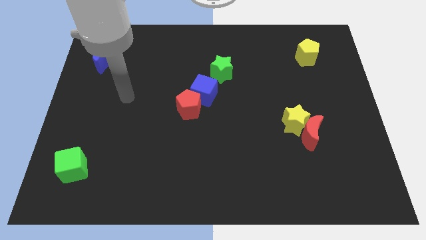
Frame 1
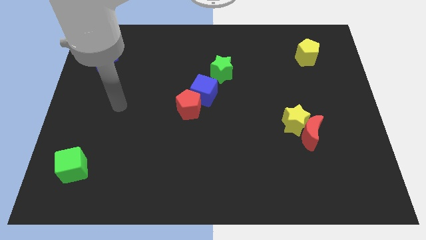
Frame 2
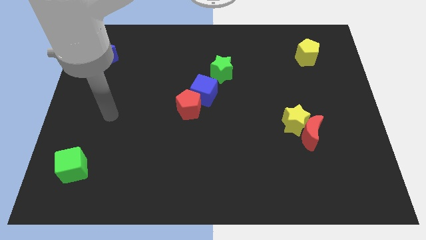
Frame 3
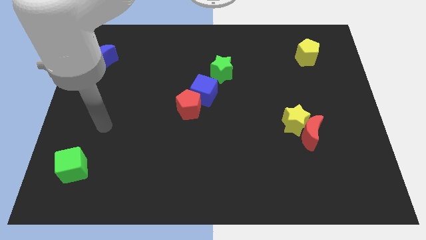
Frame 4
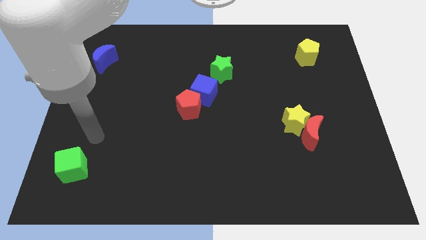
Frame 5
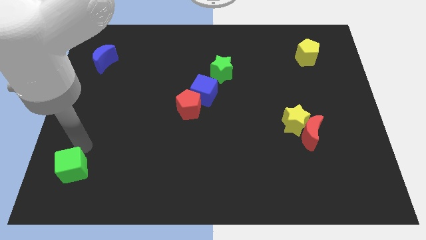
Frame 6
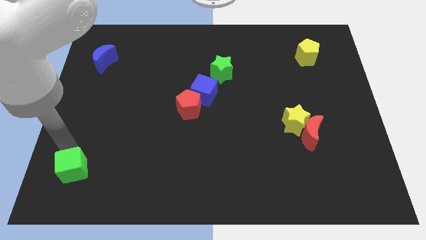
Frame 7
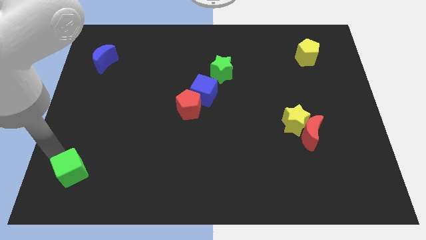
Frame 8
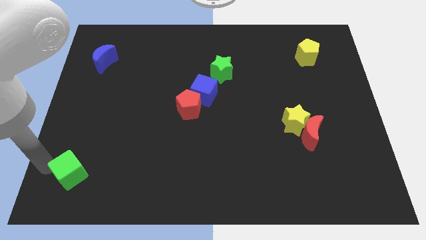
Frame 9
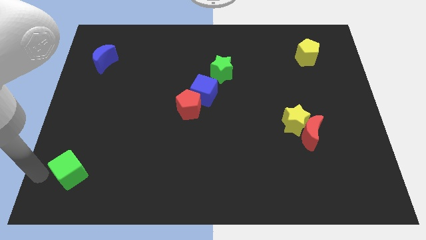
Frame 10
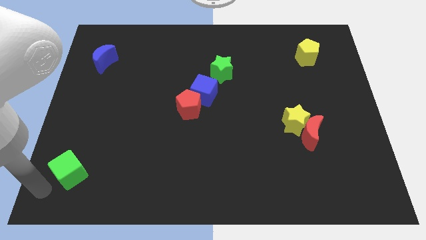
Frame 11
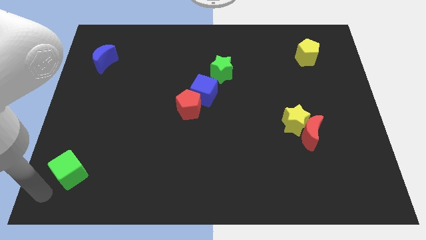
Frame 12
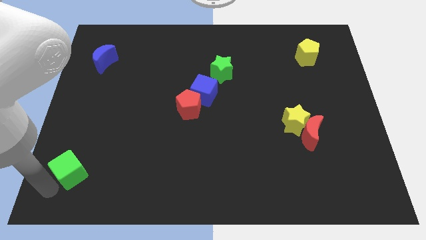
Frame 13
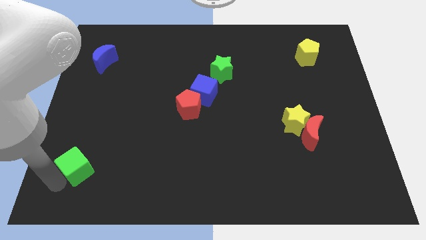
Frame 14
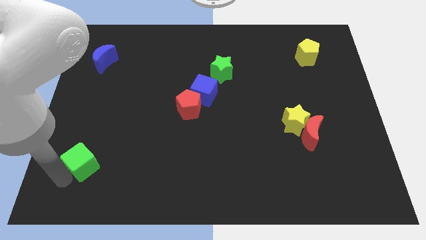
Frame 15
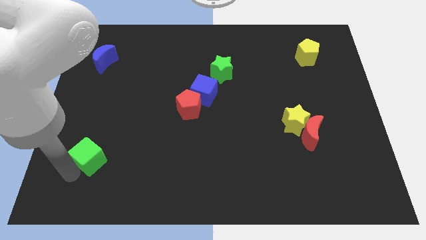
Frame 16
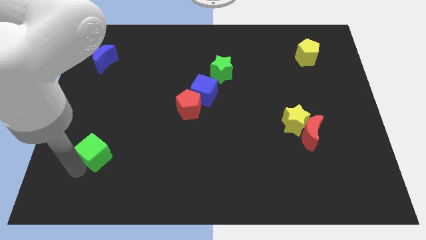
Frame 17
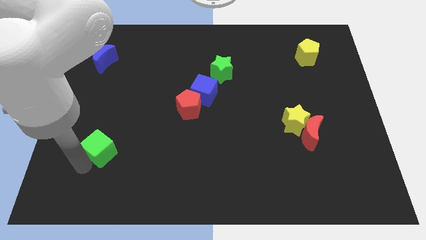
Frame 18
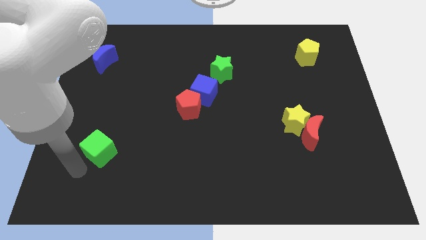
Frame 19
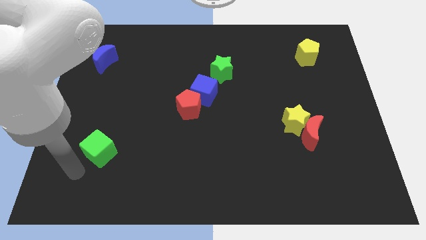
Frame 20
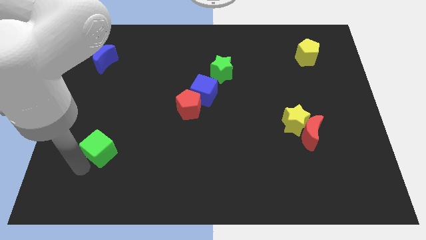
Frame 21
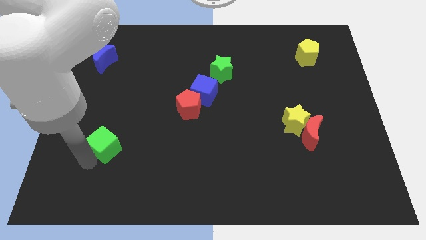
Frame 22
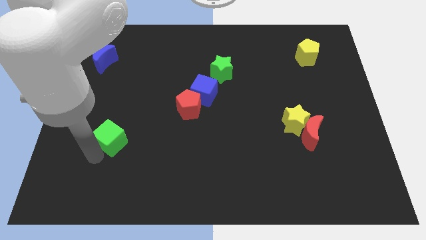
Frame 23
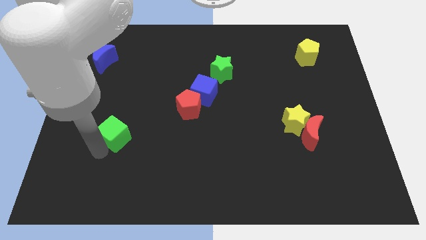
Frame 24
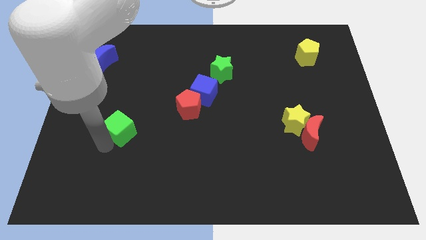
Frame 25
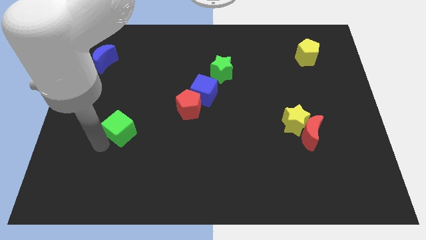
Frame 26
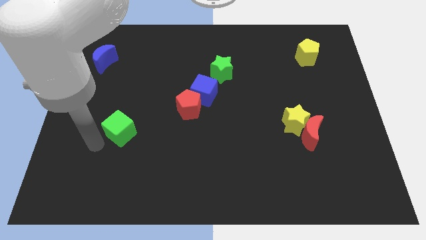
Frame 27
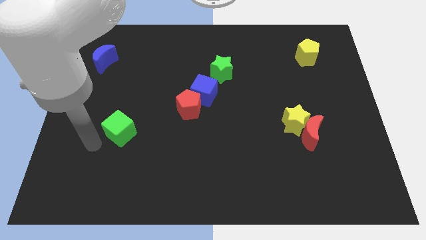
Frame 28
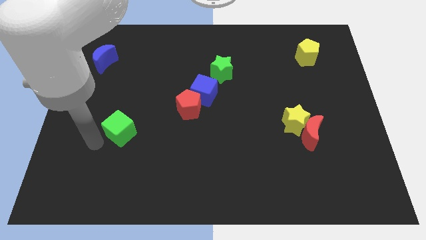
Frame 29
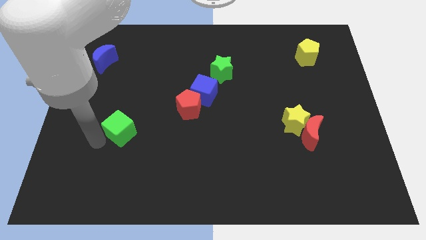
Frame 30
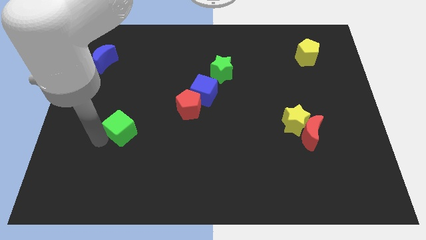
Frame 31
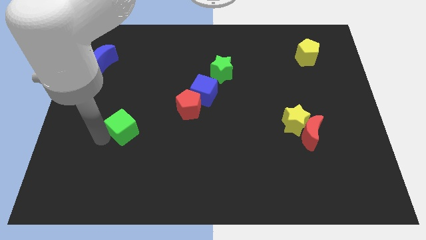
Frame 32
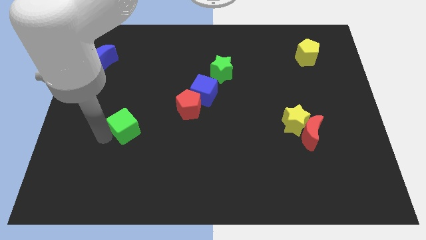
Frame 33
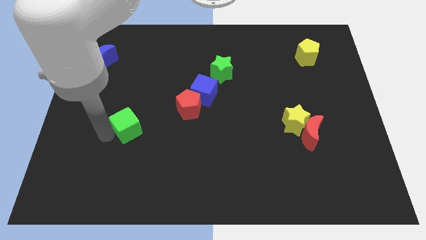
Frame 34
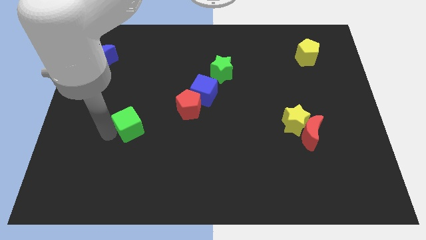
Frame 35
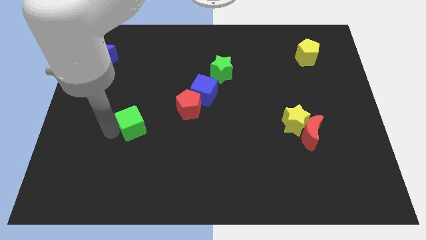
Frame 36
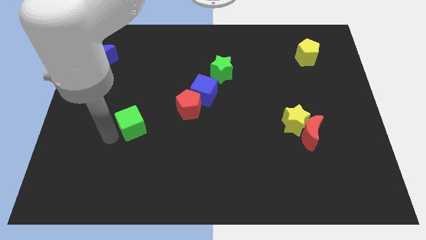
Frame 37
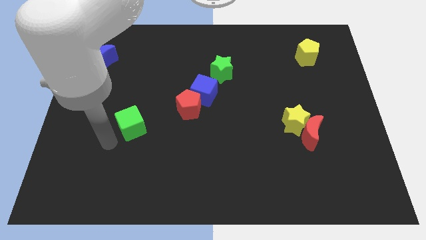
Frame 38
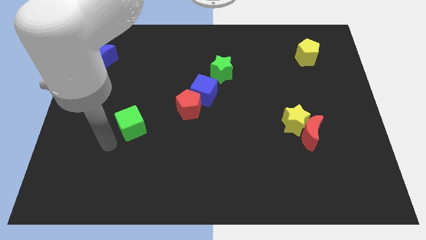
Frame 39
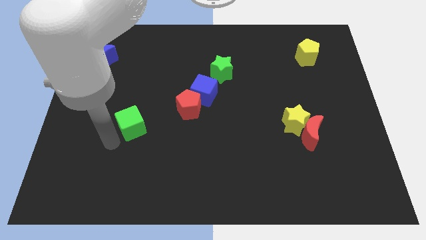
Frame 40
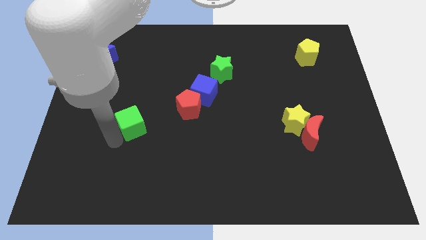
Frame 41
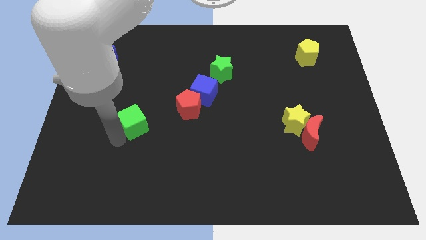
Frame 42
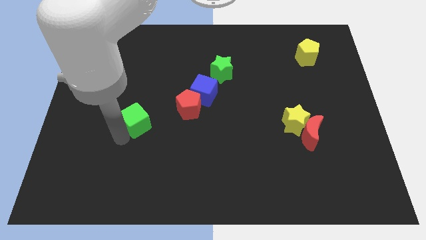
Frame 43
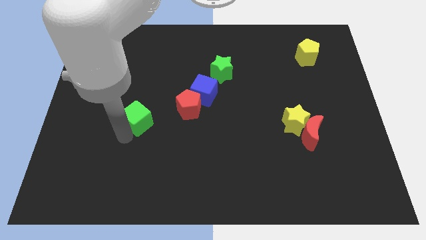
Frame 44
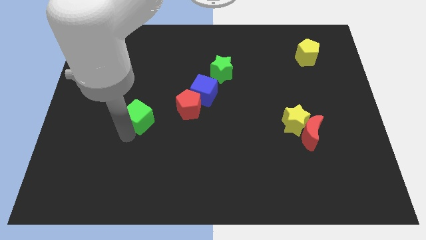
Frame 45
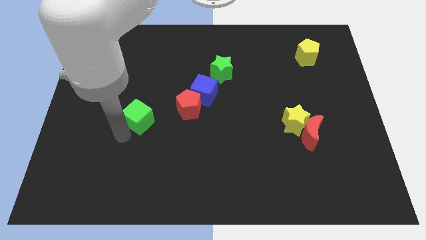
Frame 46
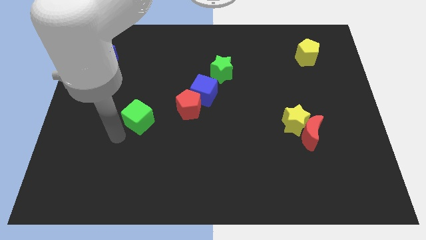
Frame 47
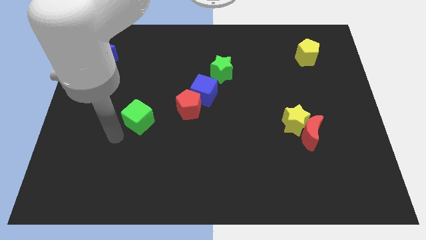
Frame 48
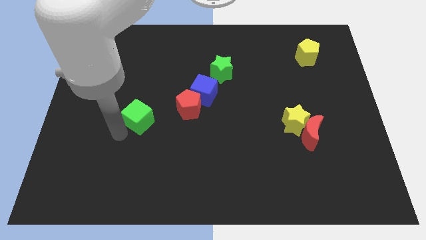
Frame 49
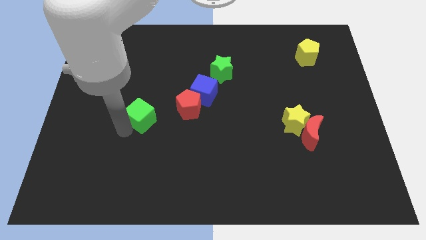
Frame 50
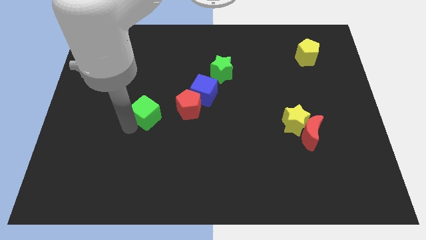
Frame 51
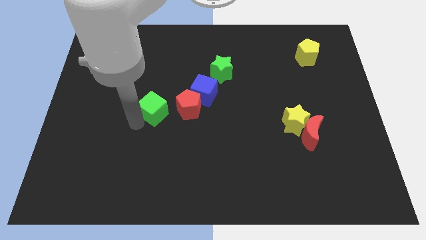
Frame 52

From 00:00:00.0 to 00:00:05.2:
move the green cube diagonally upwards and to the right

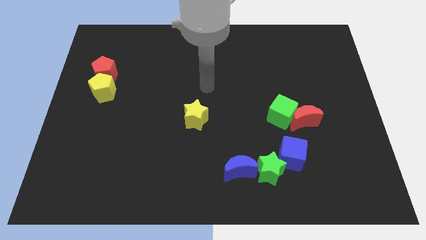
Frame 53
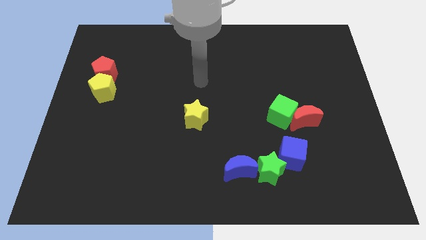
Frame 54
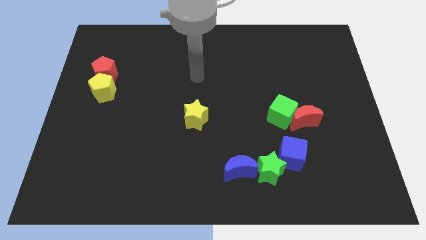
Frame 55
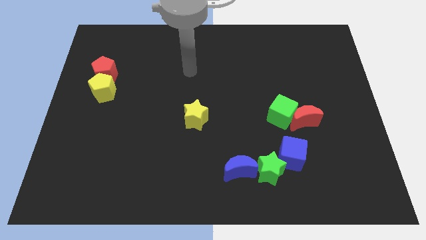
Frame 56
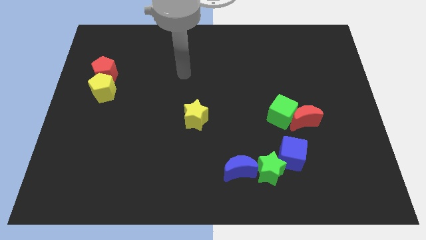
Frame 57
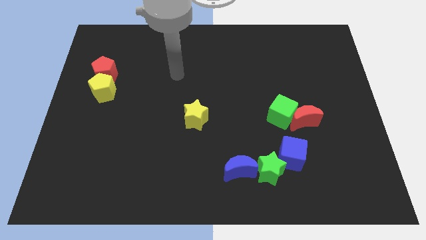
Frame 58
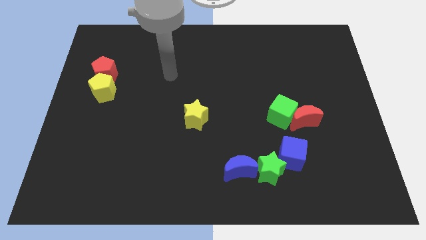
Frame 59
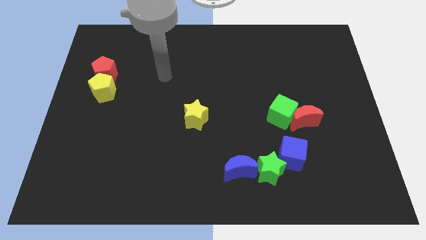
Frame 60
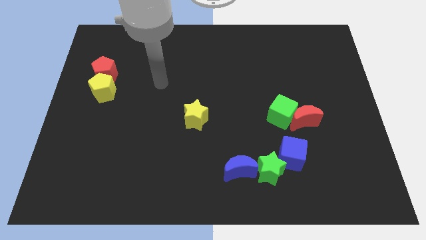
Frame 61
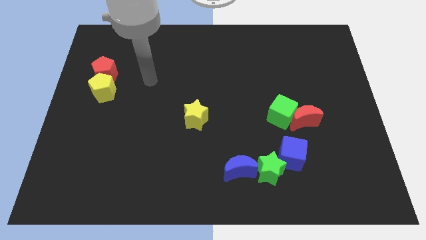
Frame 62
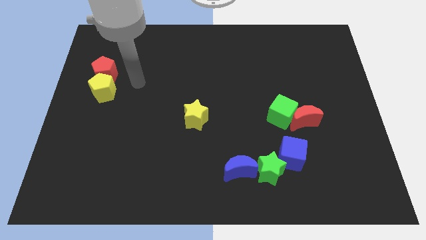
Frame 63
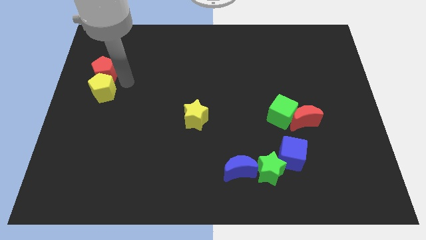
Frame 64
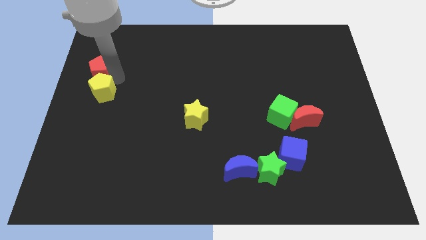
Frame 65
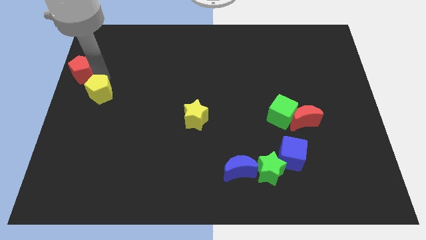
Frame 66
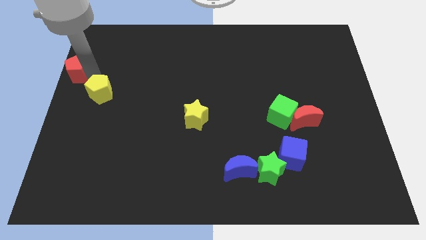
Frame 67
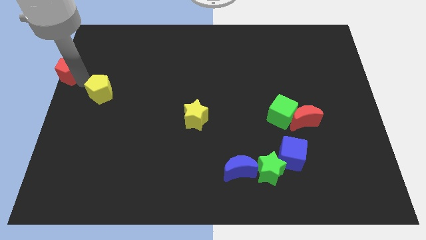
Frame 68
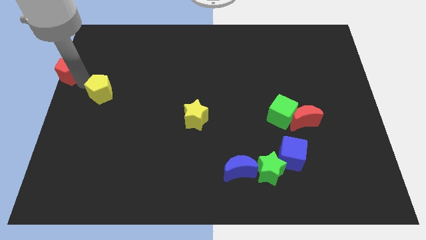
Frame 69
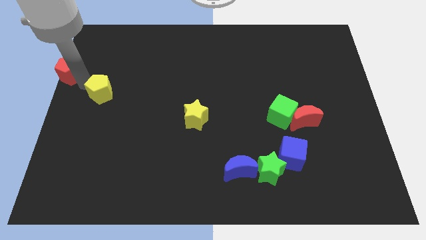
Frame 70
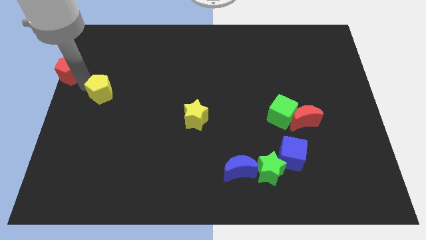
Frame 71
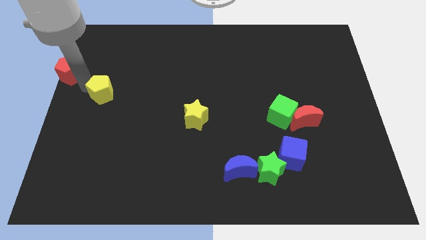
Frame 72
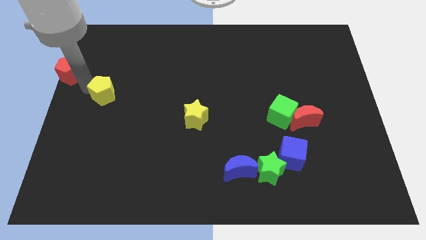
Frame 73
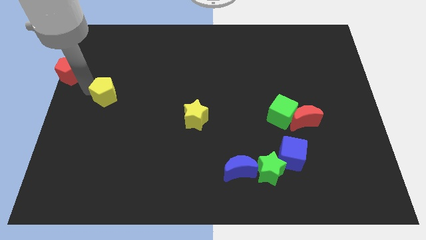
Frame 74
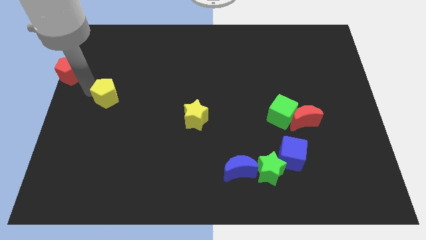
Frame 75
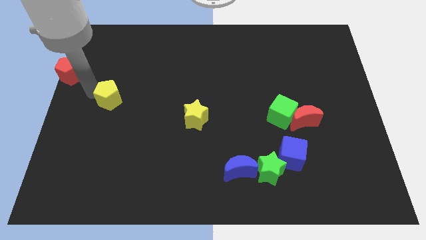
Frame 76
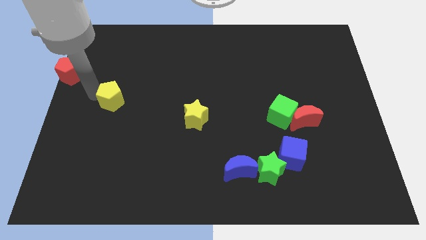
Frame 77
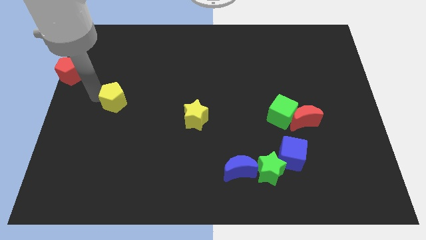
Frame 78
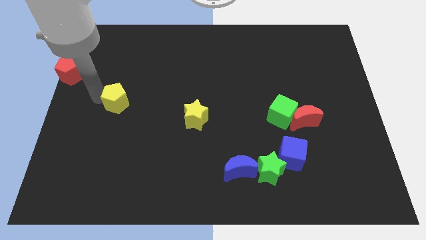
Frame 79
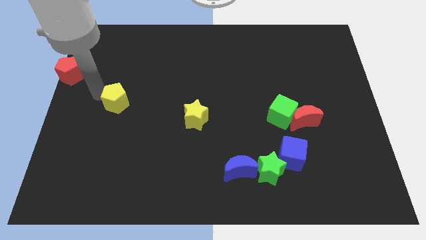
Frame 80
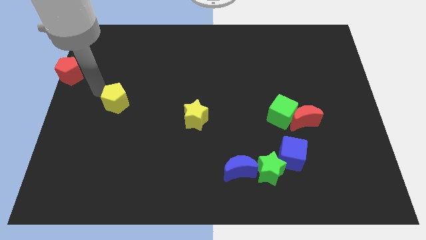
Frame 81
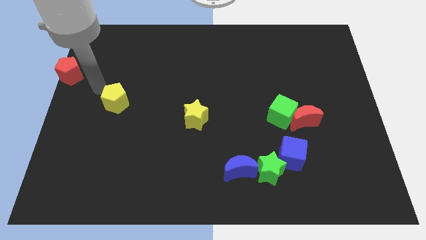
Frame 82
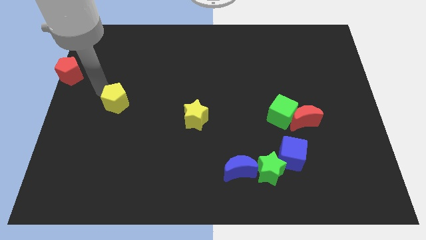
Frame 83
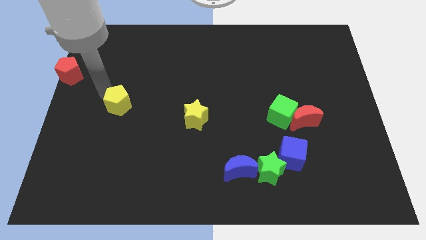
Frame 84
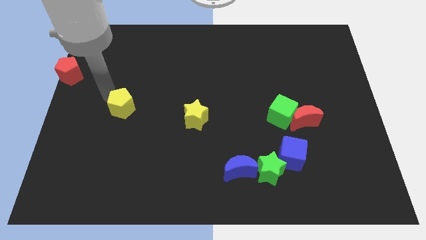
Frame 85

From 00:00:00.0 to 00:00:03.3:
move the yellow pentagon somewhat downwards and right
